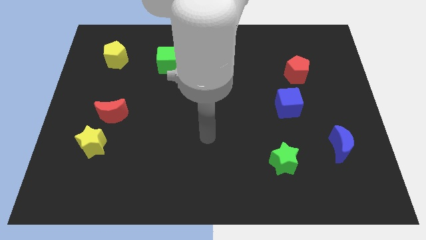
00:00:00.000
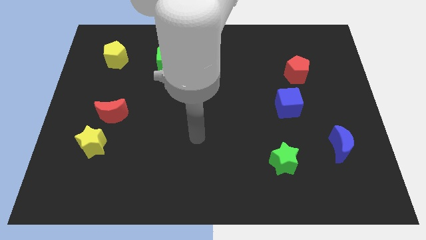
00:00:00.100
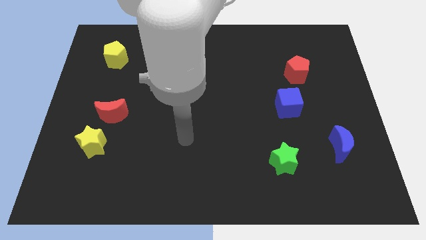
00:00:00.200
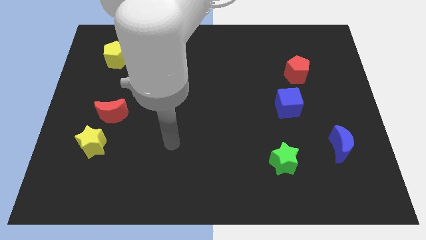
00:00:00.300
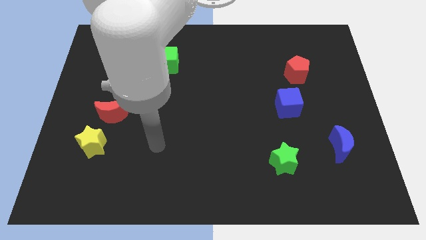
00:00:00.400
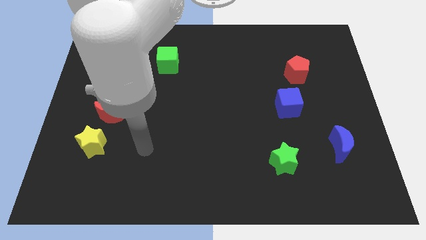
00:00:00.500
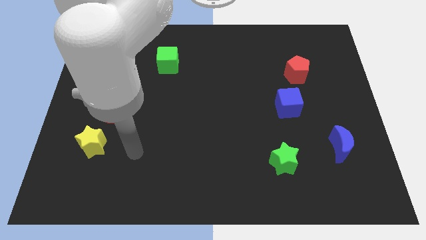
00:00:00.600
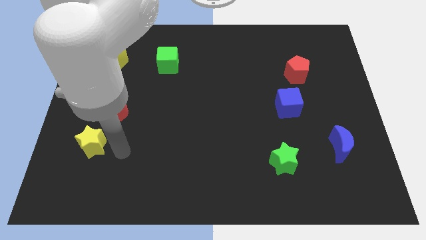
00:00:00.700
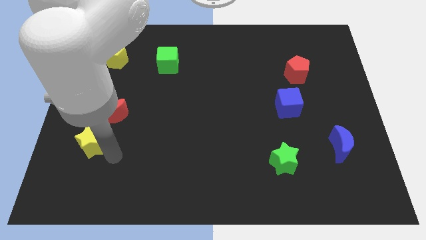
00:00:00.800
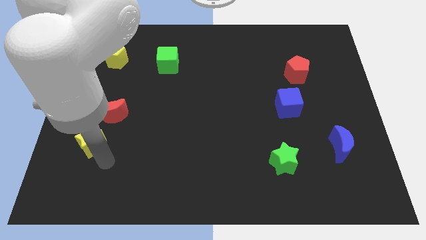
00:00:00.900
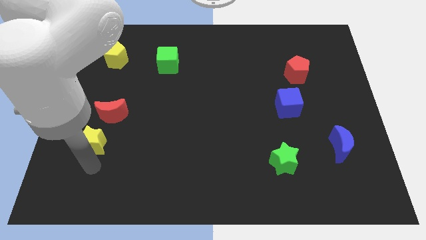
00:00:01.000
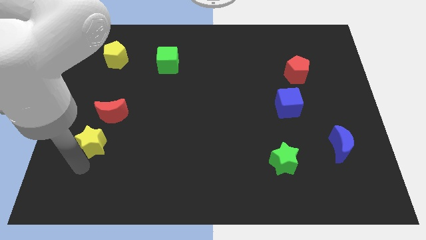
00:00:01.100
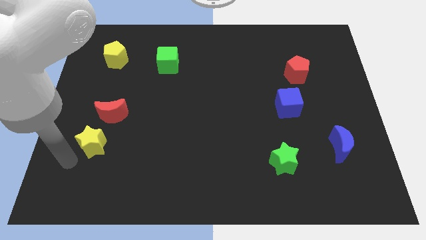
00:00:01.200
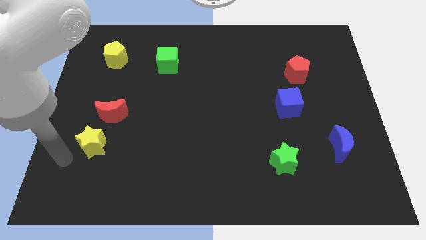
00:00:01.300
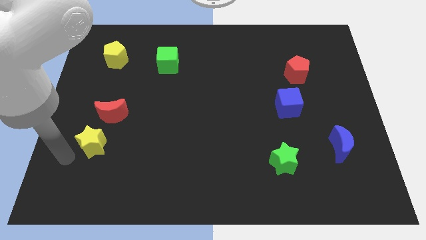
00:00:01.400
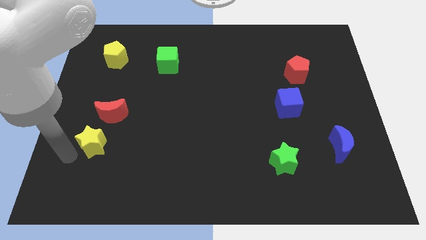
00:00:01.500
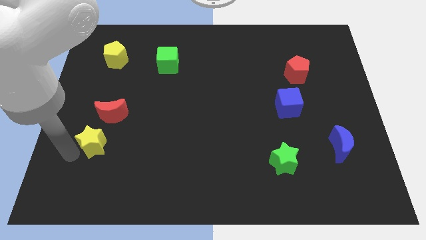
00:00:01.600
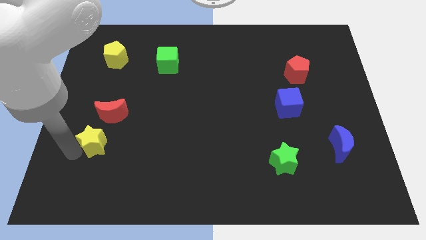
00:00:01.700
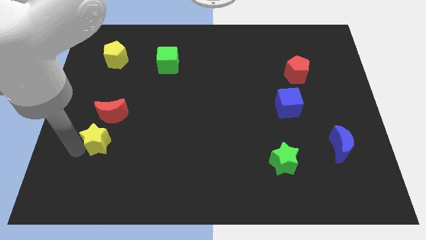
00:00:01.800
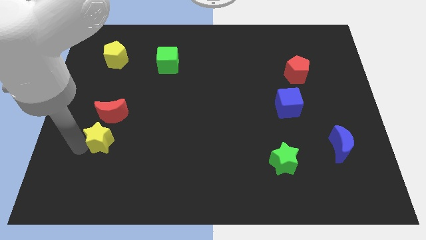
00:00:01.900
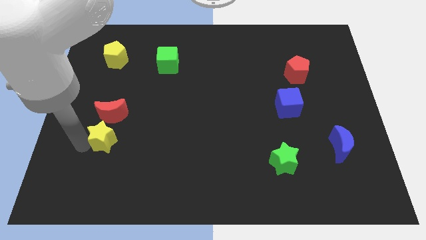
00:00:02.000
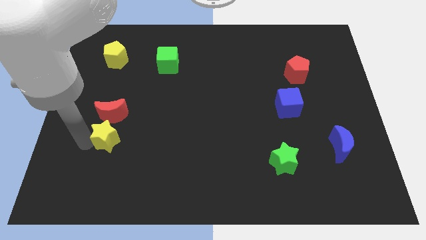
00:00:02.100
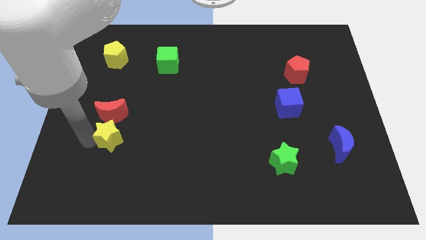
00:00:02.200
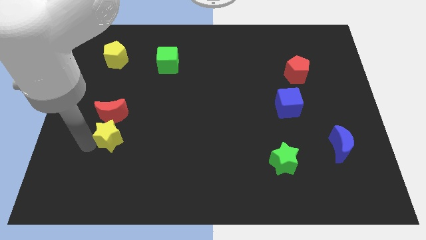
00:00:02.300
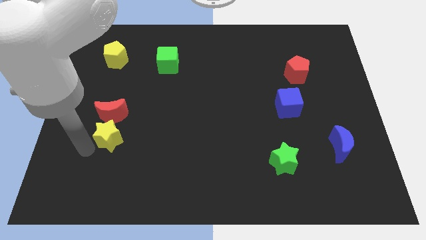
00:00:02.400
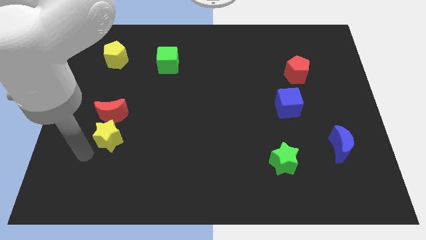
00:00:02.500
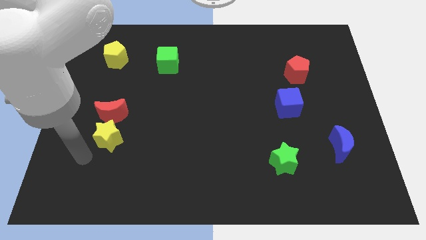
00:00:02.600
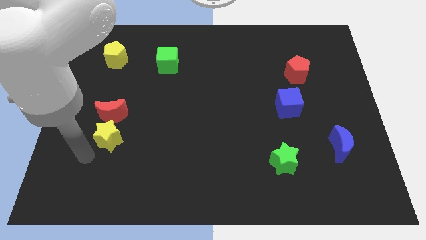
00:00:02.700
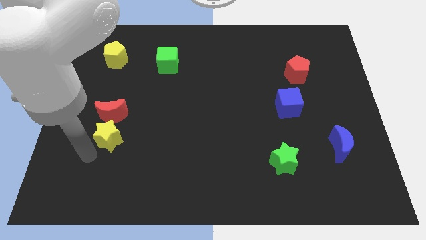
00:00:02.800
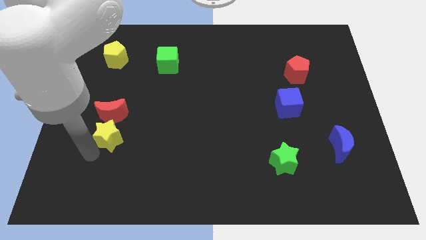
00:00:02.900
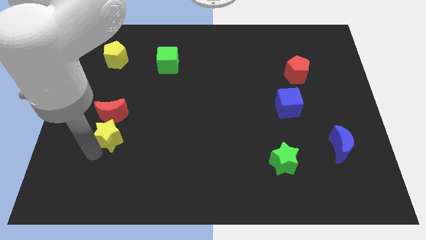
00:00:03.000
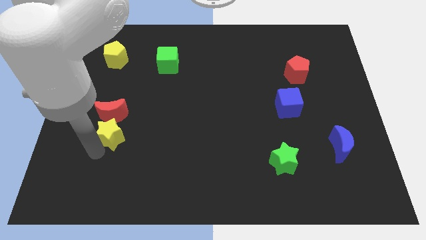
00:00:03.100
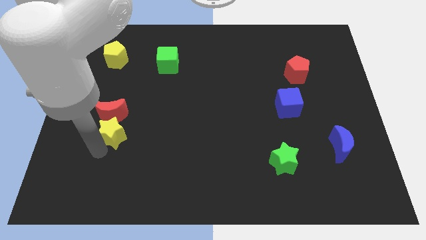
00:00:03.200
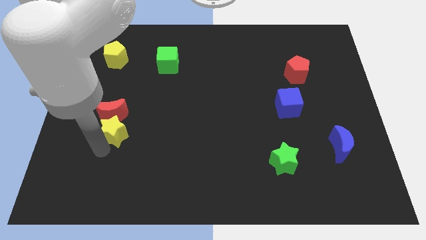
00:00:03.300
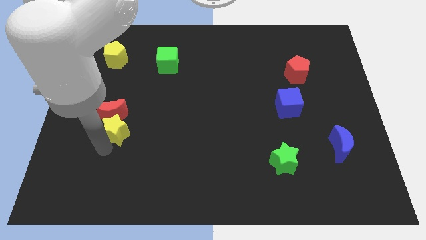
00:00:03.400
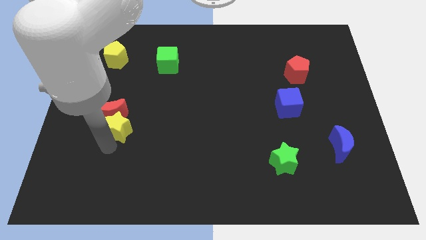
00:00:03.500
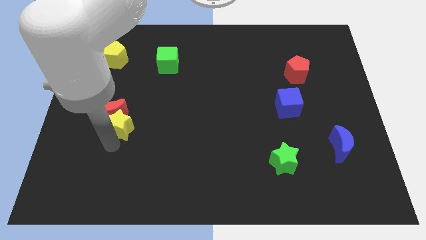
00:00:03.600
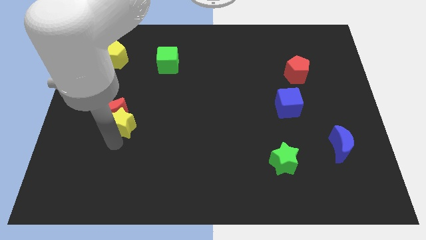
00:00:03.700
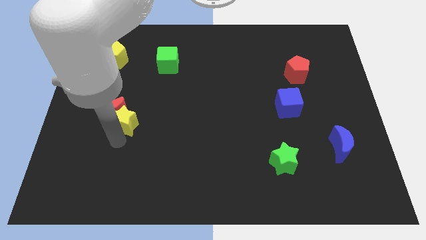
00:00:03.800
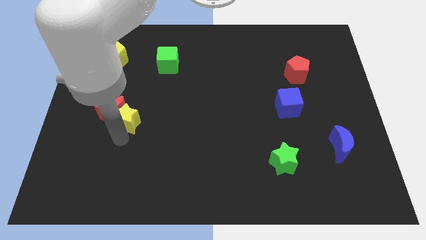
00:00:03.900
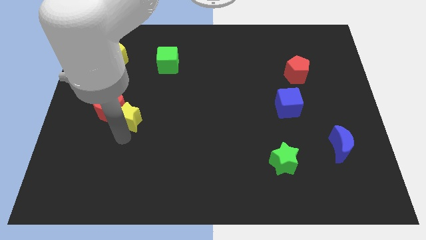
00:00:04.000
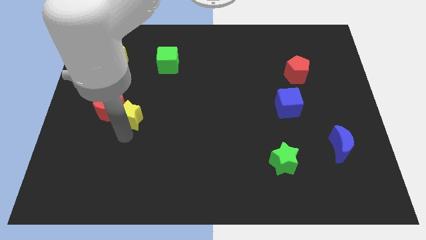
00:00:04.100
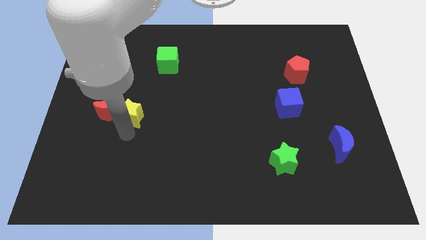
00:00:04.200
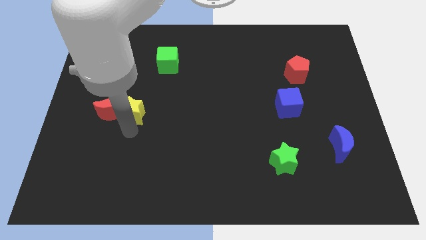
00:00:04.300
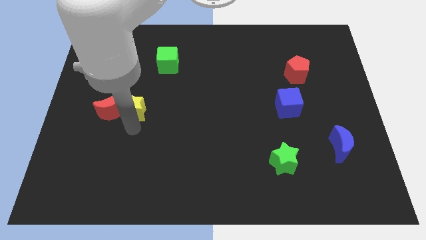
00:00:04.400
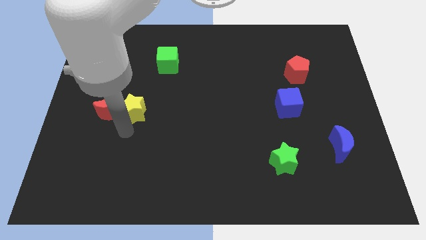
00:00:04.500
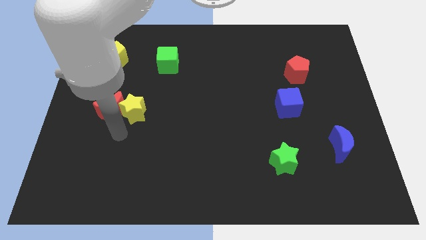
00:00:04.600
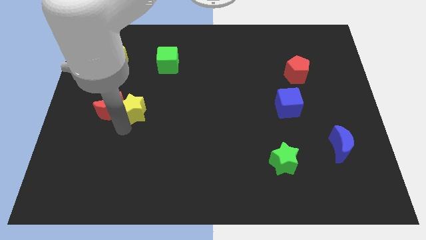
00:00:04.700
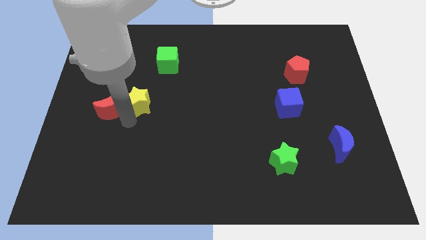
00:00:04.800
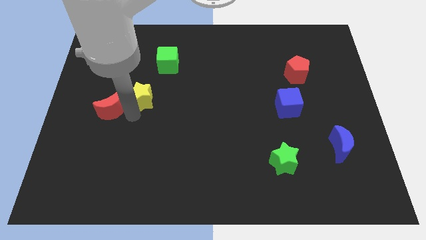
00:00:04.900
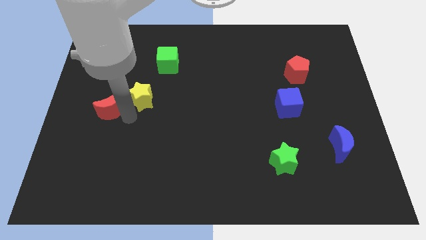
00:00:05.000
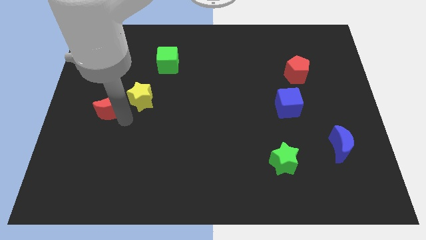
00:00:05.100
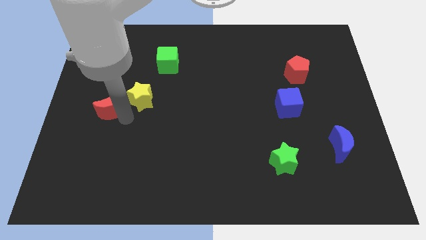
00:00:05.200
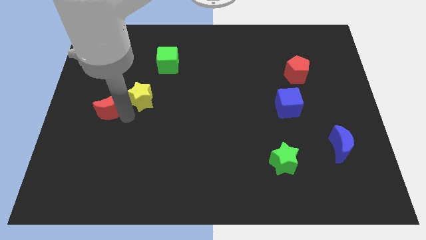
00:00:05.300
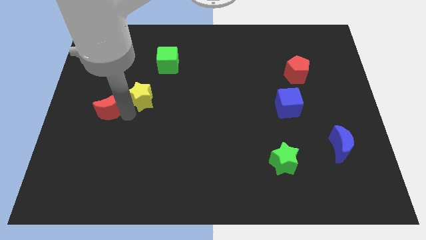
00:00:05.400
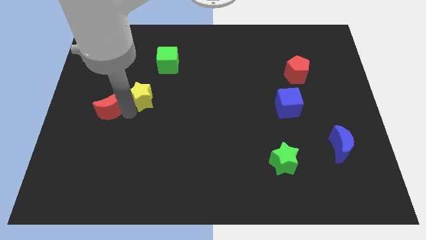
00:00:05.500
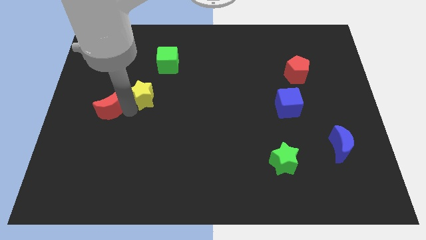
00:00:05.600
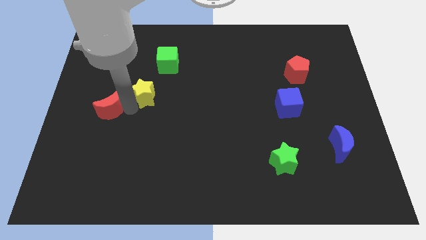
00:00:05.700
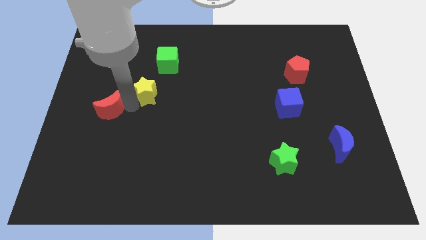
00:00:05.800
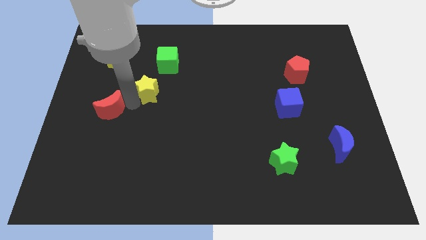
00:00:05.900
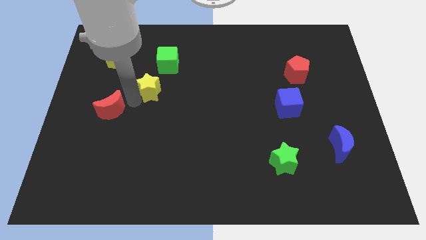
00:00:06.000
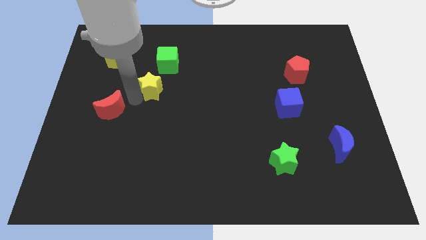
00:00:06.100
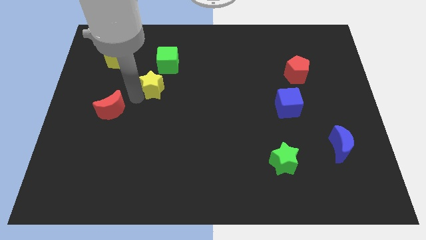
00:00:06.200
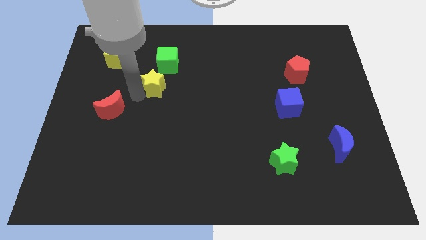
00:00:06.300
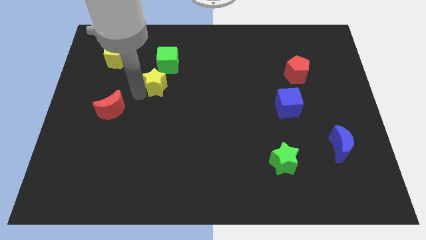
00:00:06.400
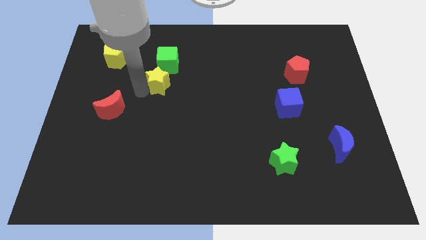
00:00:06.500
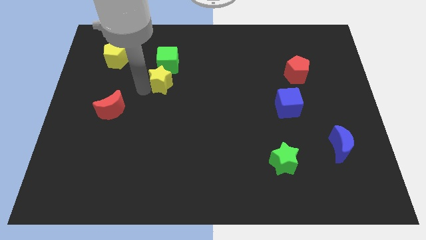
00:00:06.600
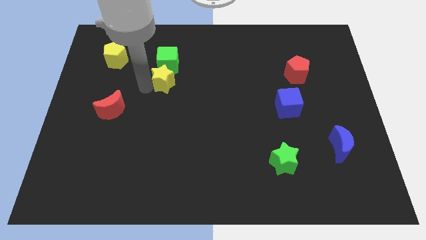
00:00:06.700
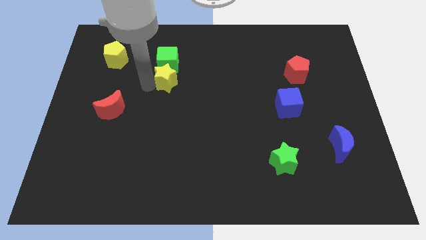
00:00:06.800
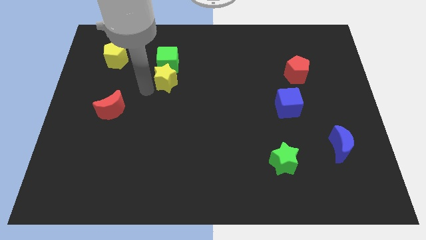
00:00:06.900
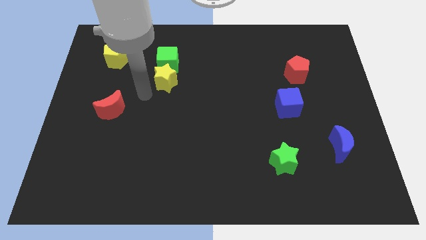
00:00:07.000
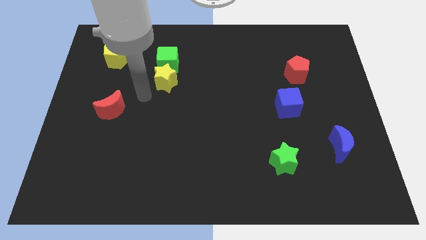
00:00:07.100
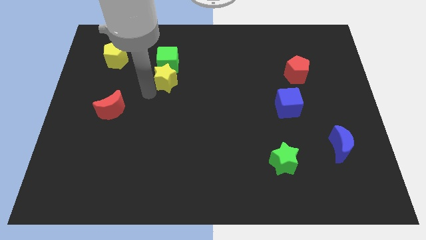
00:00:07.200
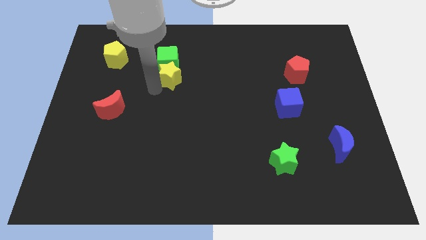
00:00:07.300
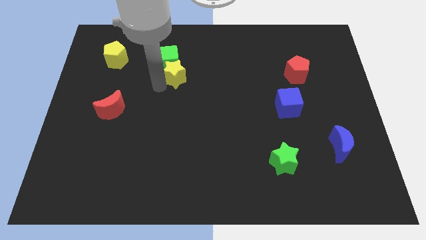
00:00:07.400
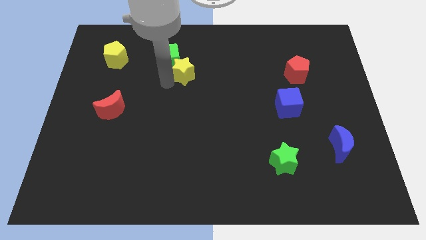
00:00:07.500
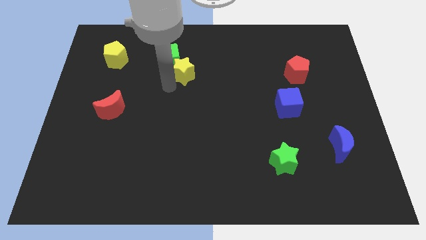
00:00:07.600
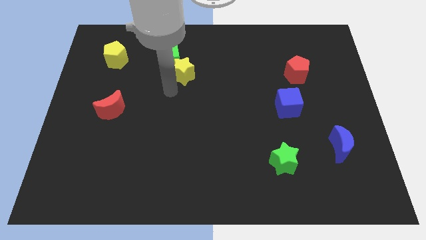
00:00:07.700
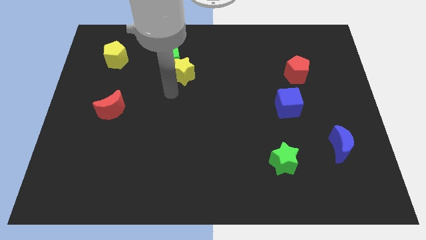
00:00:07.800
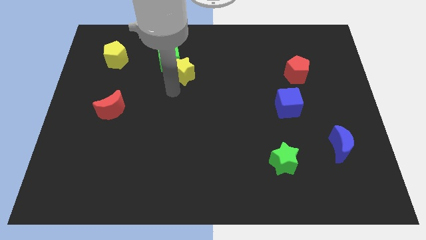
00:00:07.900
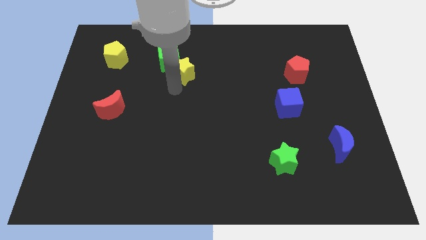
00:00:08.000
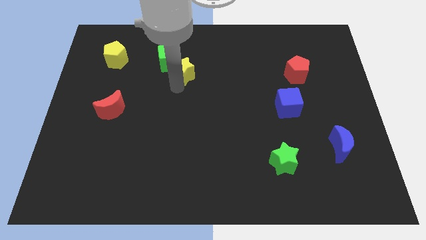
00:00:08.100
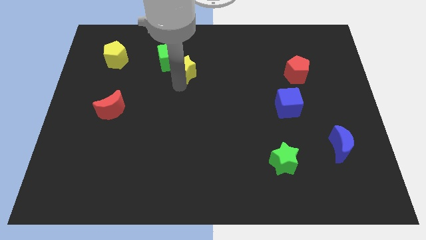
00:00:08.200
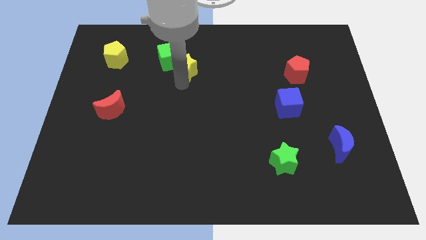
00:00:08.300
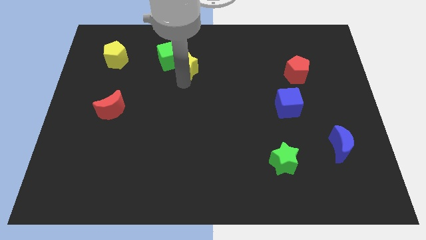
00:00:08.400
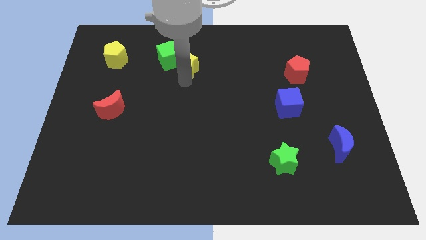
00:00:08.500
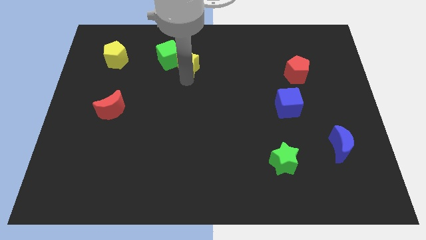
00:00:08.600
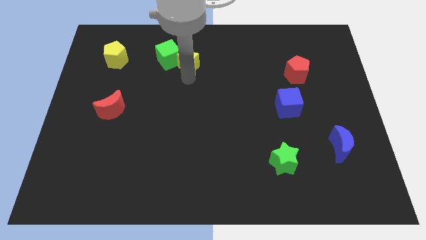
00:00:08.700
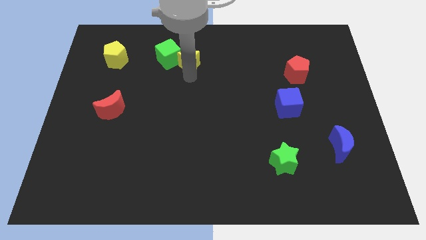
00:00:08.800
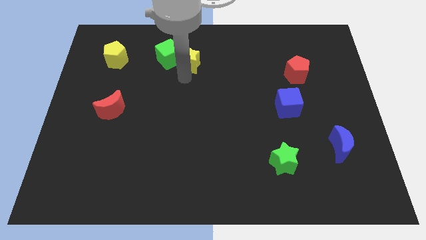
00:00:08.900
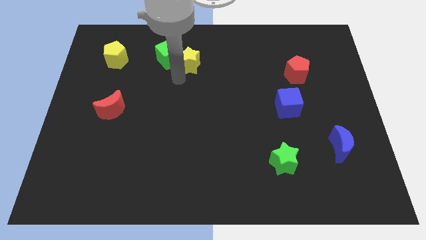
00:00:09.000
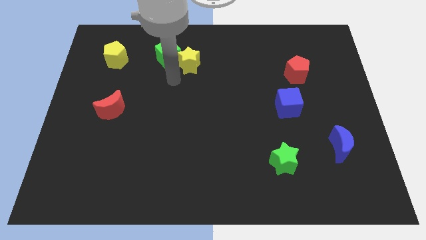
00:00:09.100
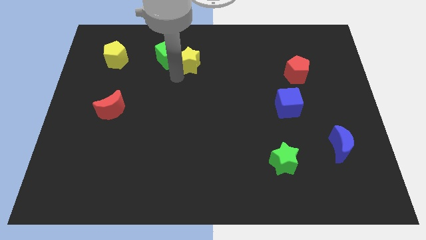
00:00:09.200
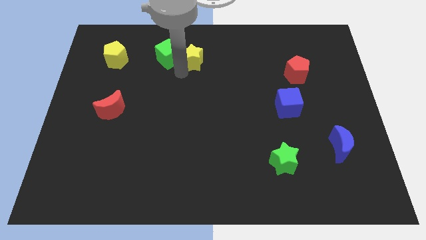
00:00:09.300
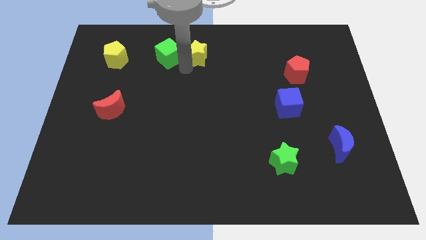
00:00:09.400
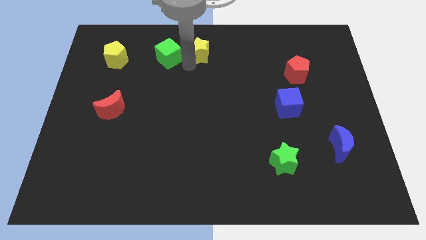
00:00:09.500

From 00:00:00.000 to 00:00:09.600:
slide the yellow star to the top
